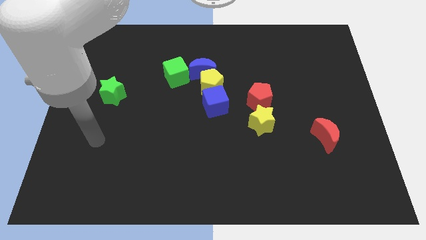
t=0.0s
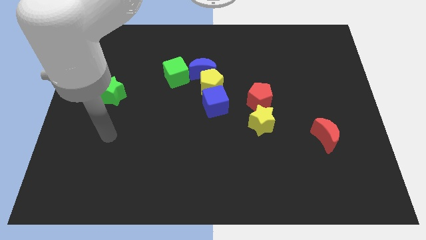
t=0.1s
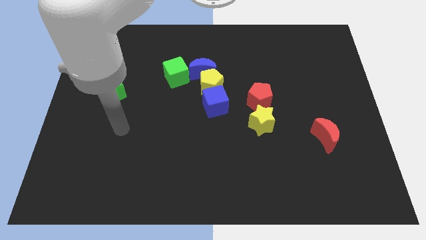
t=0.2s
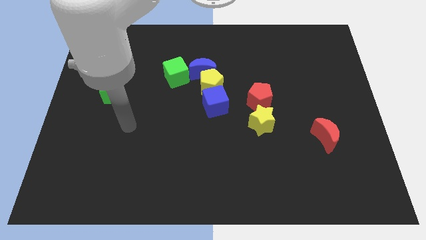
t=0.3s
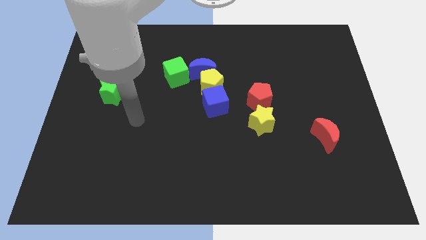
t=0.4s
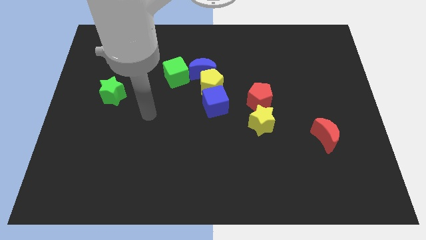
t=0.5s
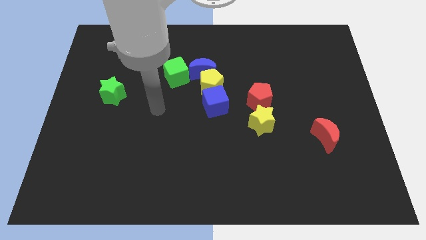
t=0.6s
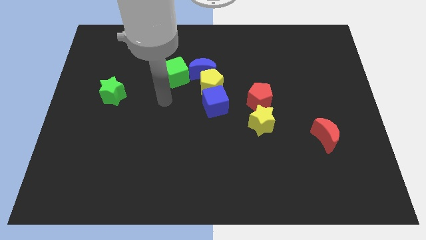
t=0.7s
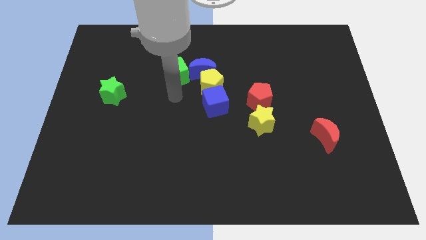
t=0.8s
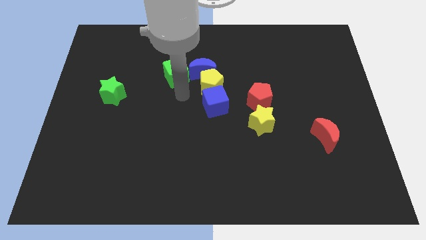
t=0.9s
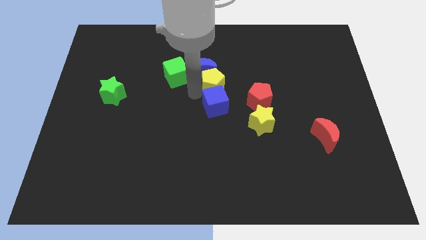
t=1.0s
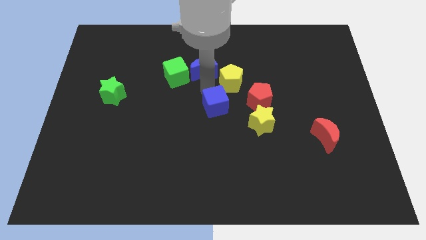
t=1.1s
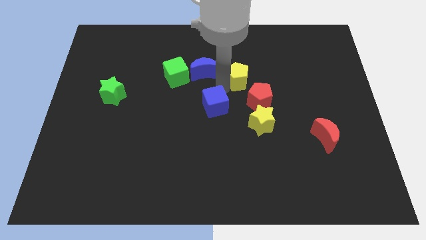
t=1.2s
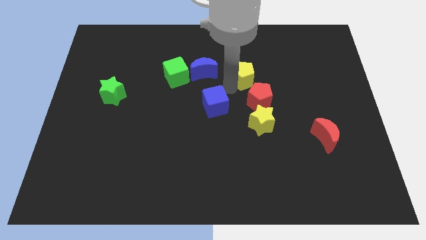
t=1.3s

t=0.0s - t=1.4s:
pull the blue cube apart from the yellow pentagon

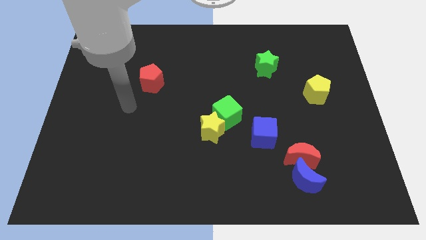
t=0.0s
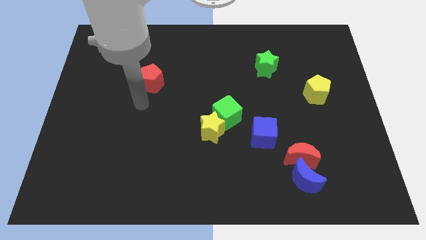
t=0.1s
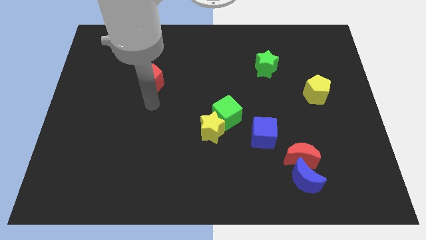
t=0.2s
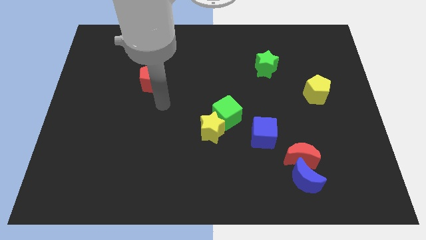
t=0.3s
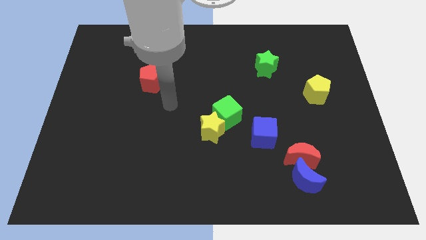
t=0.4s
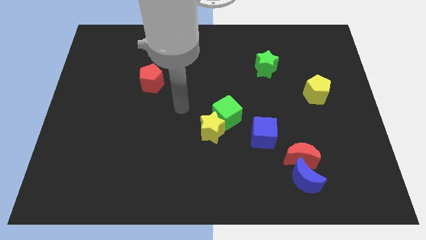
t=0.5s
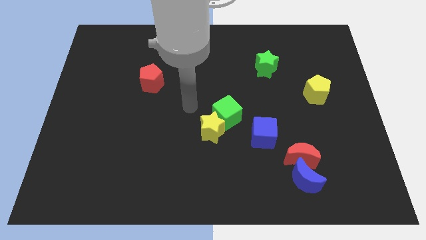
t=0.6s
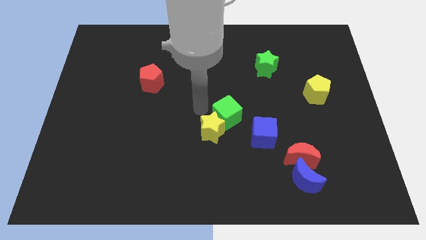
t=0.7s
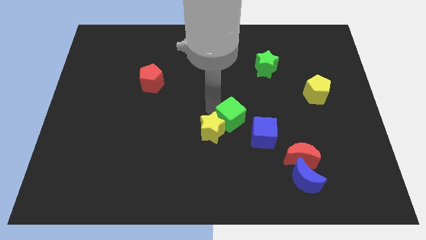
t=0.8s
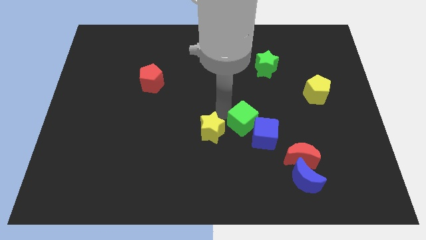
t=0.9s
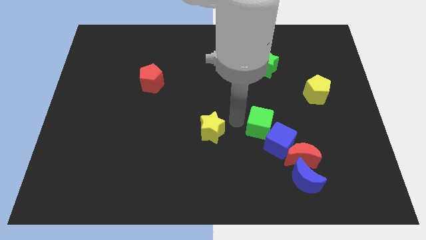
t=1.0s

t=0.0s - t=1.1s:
pull the yellow star apart from the green cube

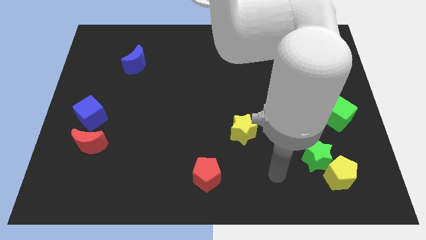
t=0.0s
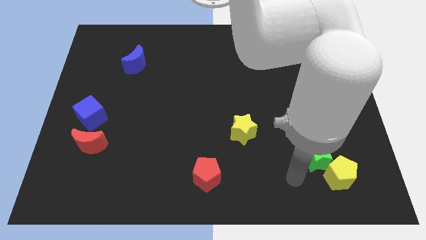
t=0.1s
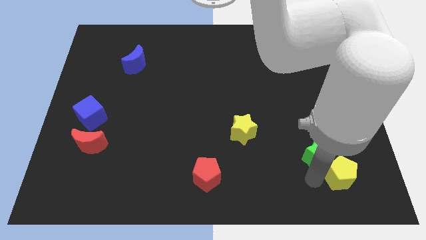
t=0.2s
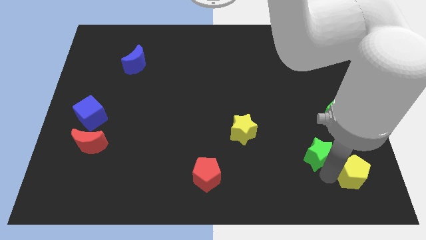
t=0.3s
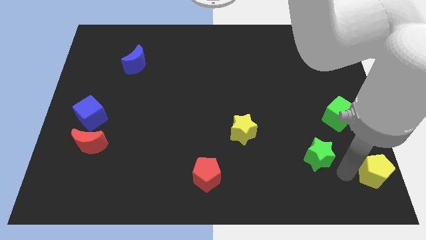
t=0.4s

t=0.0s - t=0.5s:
pull the green star apart from the yellow pentagon

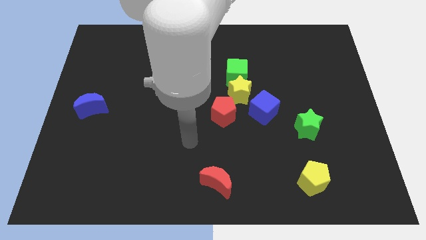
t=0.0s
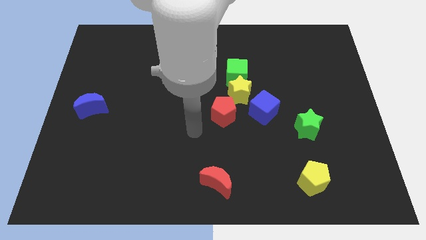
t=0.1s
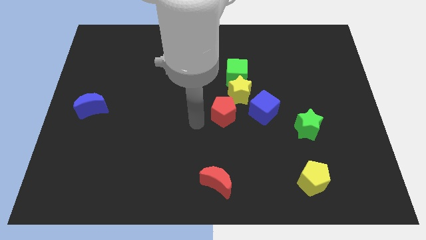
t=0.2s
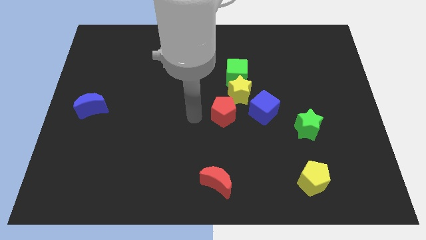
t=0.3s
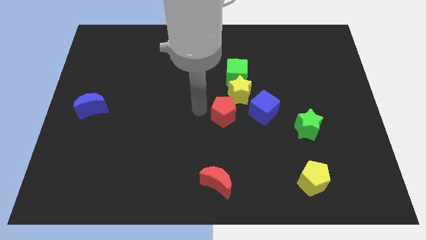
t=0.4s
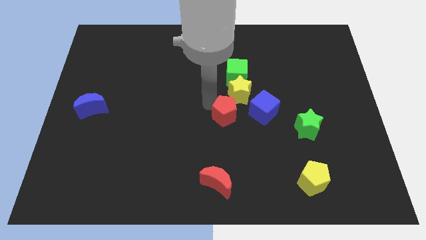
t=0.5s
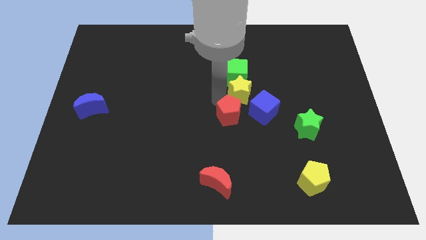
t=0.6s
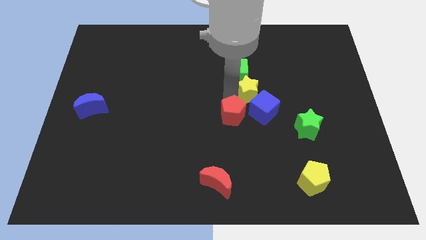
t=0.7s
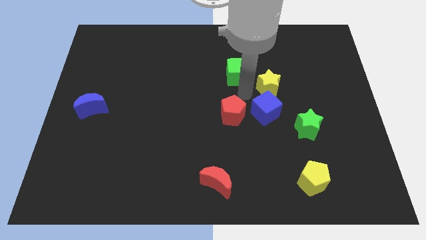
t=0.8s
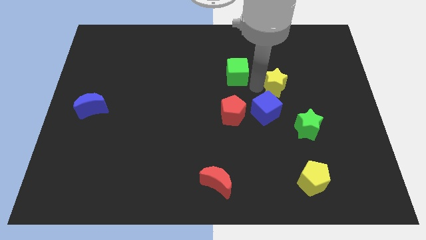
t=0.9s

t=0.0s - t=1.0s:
move the green cube away from the yellow star

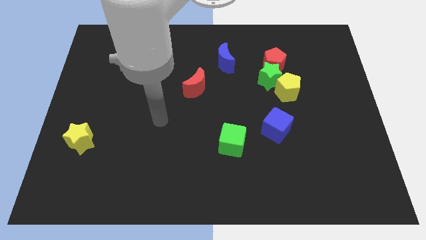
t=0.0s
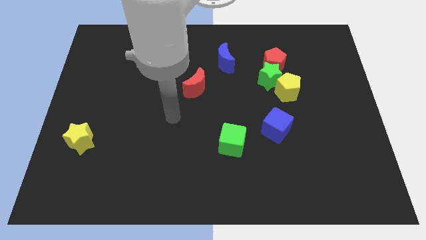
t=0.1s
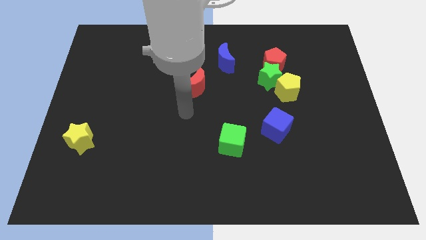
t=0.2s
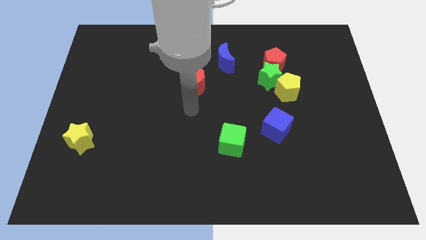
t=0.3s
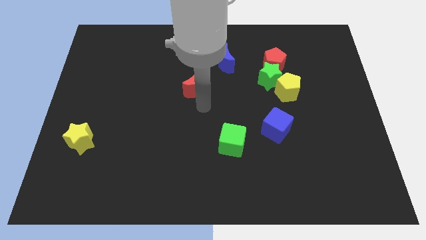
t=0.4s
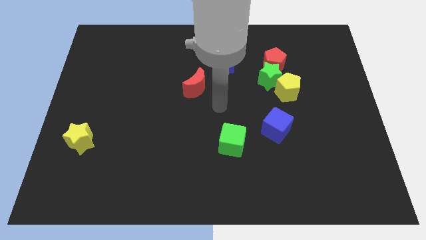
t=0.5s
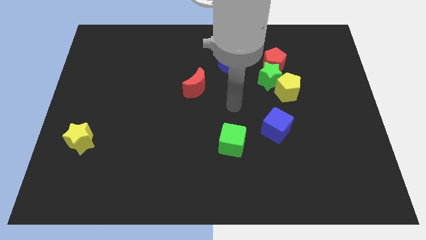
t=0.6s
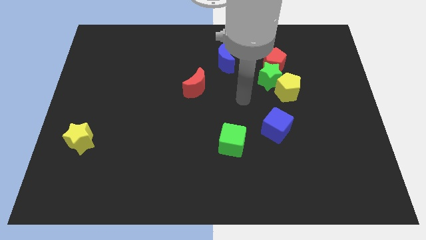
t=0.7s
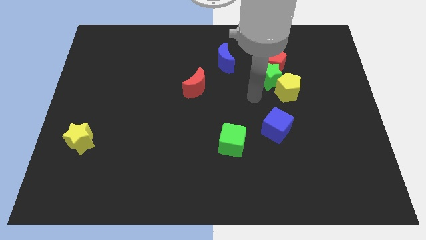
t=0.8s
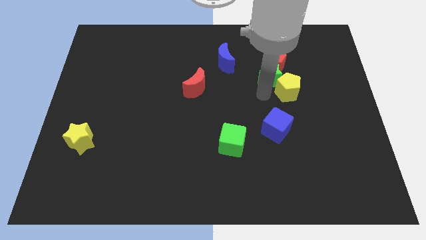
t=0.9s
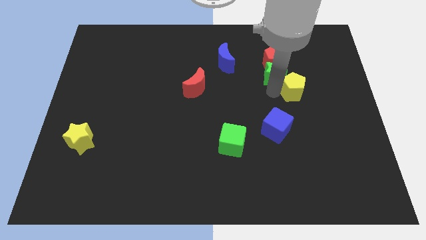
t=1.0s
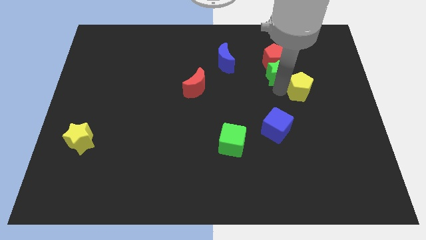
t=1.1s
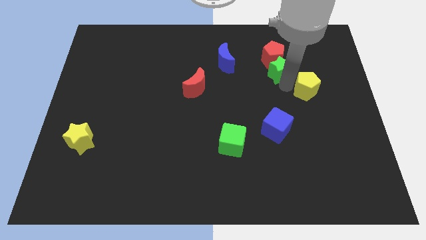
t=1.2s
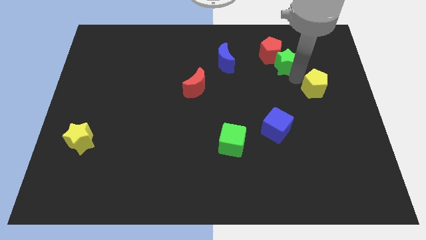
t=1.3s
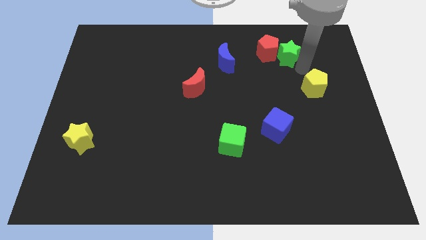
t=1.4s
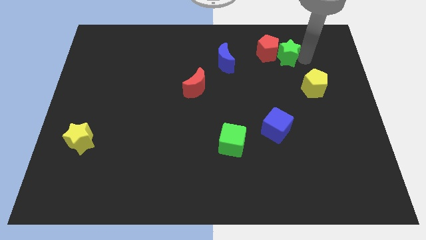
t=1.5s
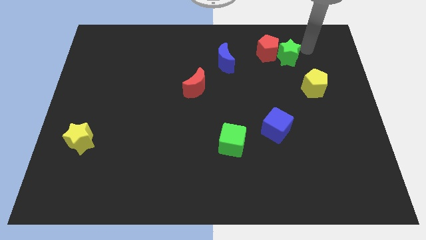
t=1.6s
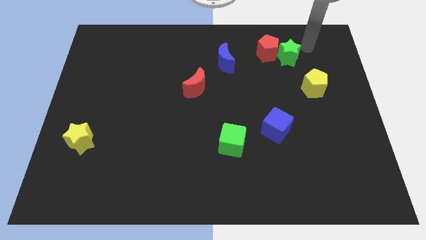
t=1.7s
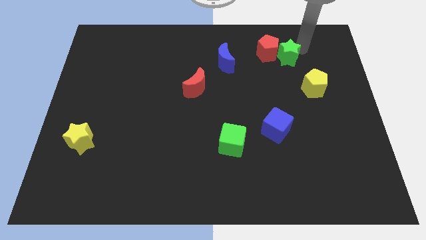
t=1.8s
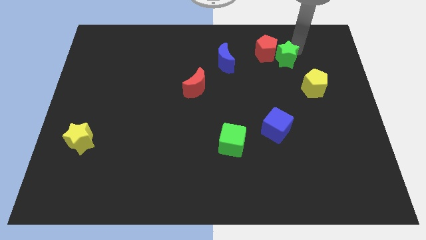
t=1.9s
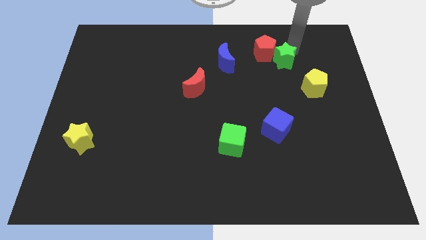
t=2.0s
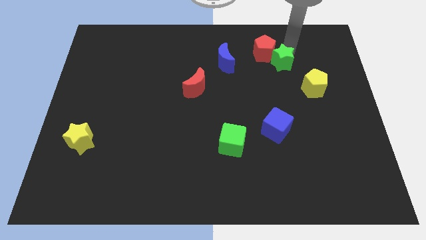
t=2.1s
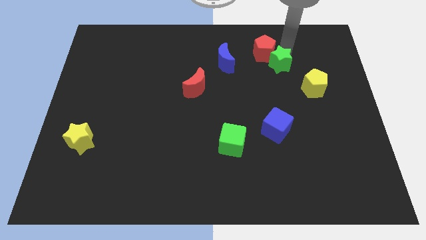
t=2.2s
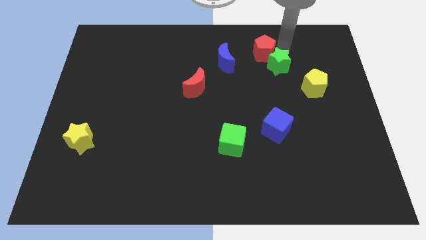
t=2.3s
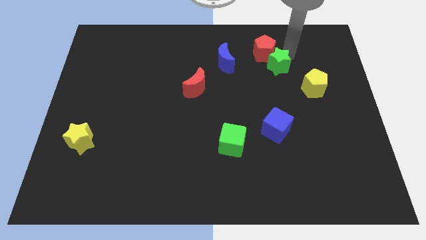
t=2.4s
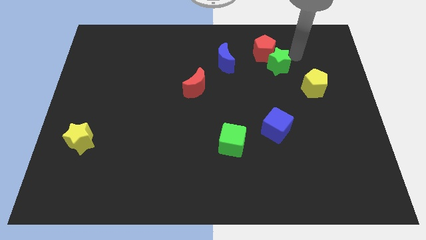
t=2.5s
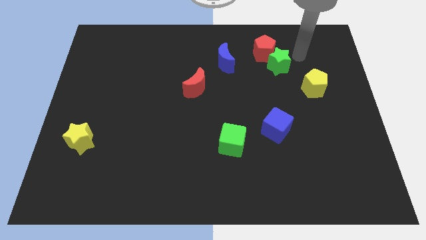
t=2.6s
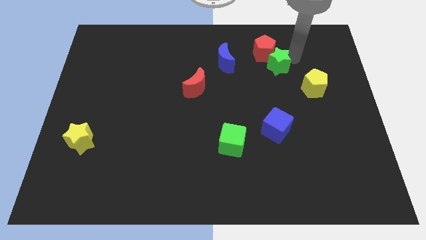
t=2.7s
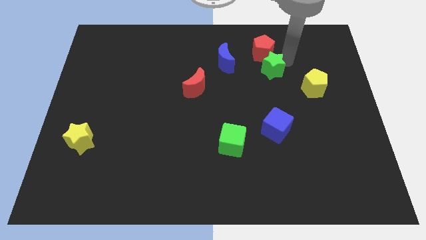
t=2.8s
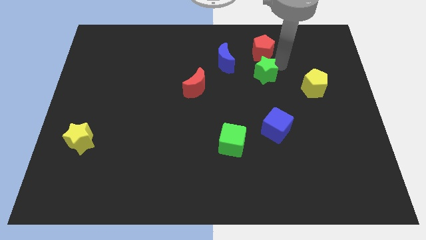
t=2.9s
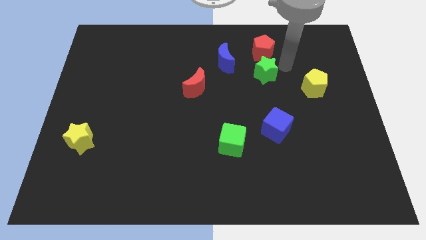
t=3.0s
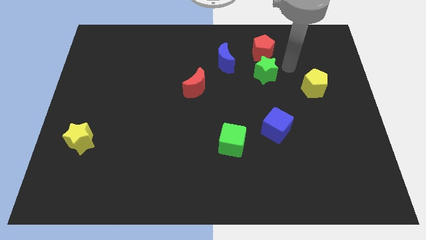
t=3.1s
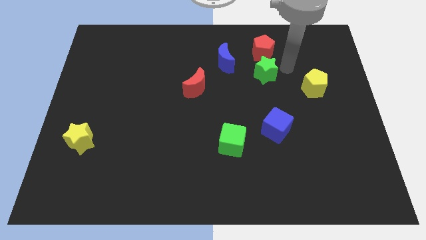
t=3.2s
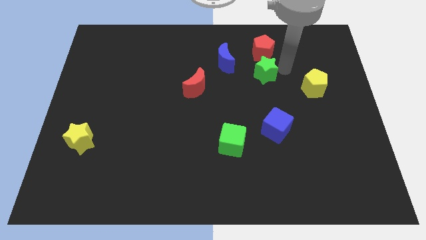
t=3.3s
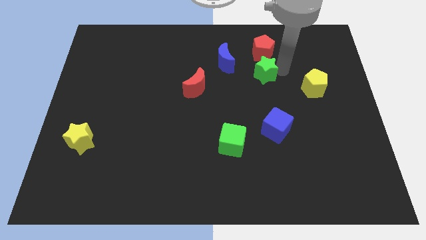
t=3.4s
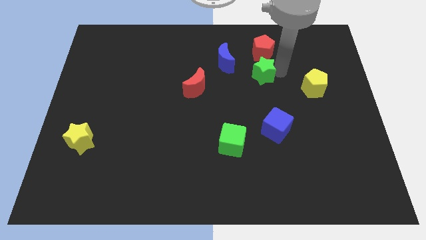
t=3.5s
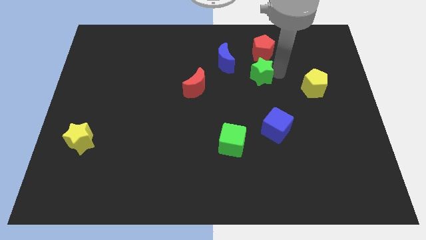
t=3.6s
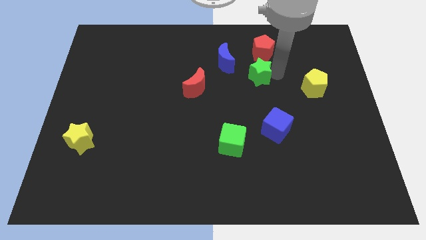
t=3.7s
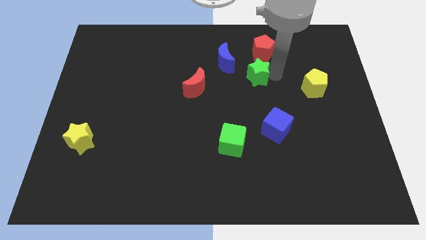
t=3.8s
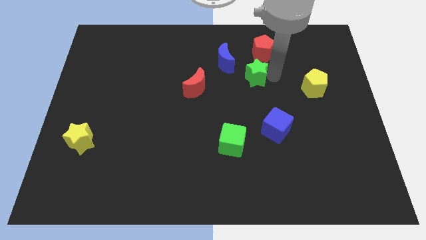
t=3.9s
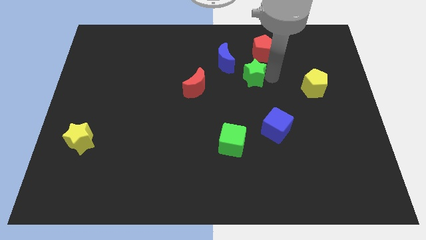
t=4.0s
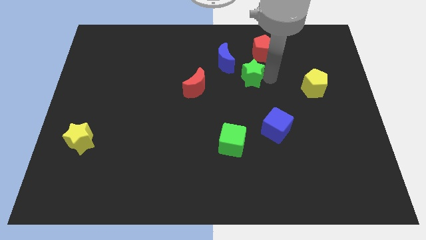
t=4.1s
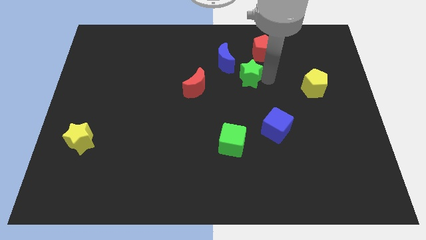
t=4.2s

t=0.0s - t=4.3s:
move the green star away from the red pentagon and yellow pentagon

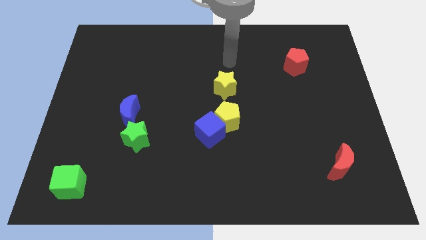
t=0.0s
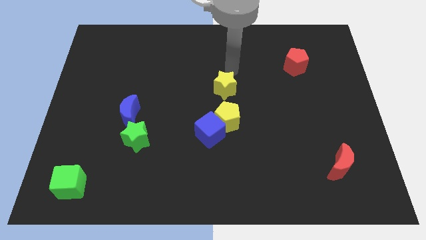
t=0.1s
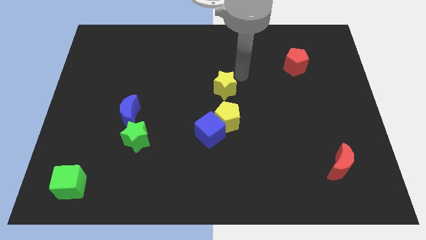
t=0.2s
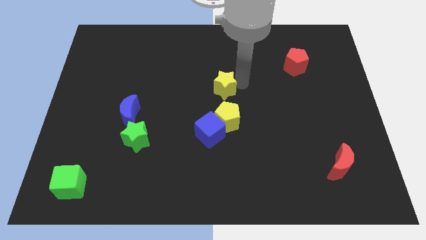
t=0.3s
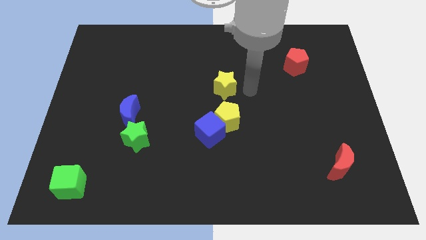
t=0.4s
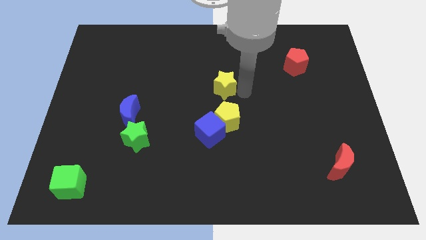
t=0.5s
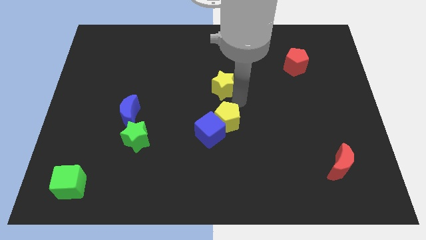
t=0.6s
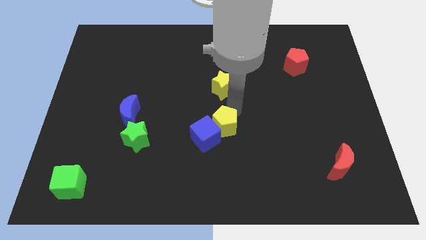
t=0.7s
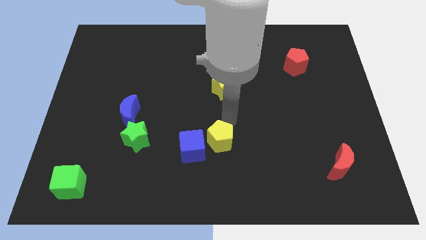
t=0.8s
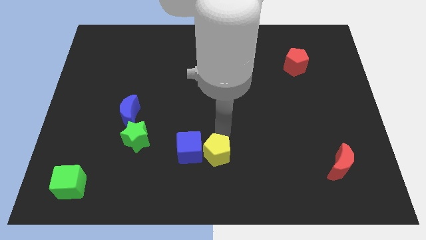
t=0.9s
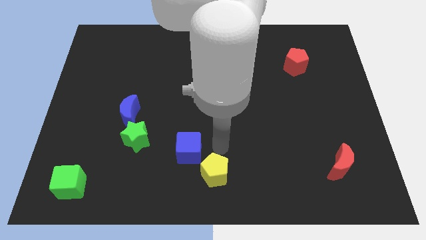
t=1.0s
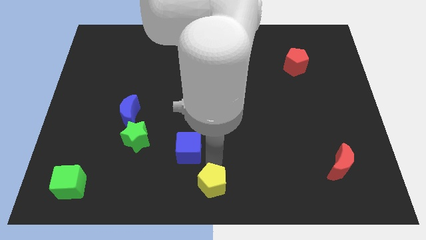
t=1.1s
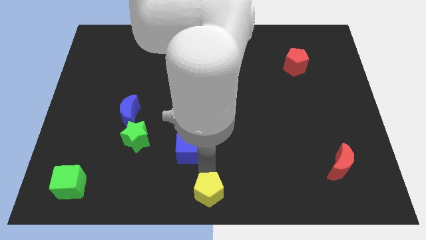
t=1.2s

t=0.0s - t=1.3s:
move the blue cube away from the yellow pentagon
